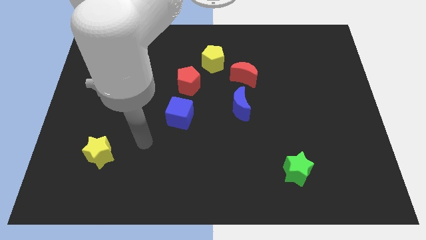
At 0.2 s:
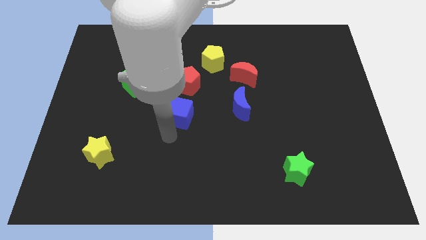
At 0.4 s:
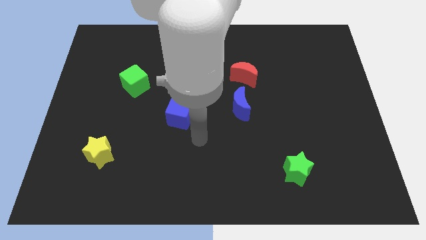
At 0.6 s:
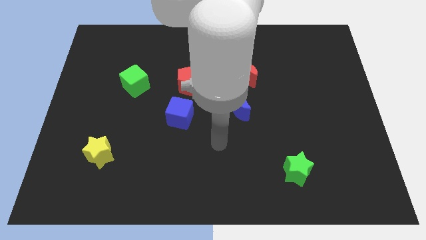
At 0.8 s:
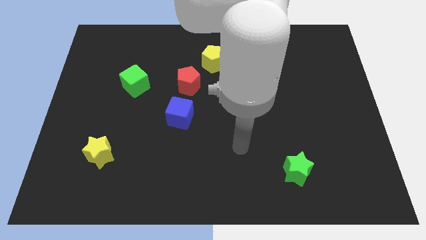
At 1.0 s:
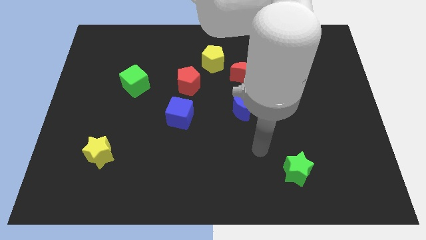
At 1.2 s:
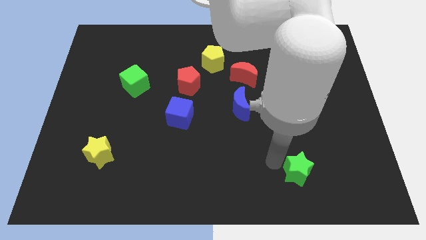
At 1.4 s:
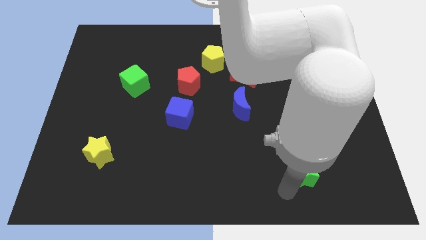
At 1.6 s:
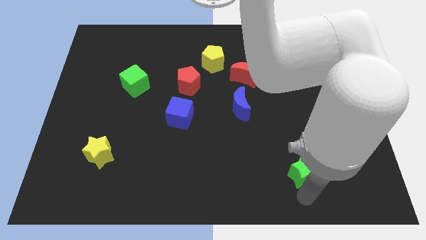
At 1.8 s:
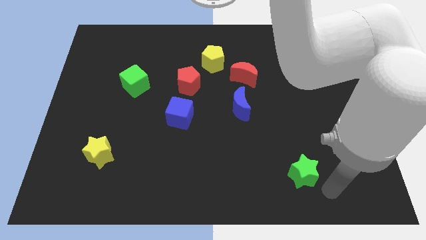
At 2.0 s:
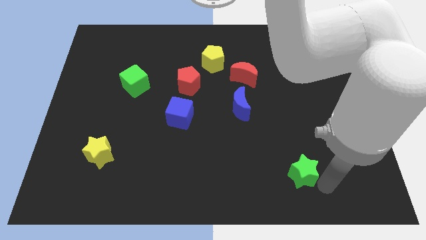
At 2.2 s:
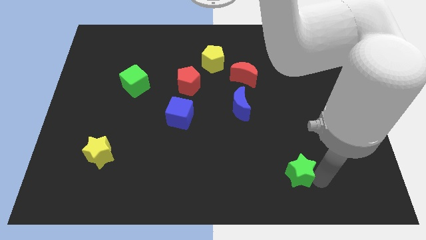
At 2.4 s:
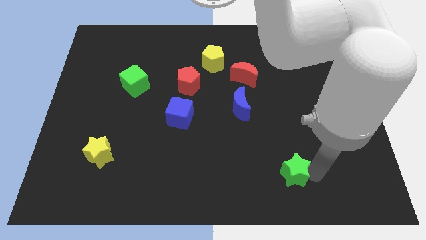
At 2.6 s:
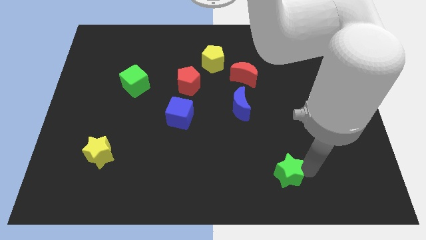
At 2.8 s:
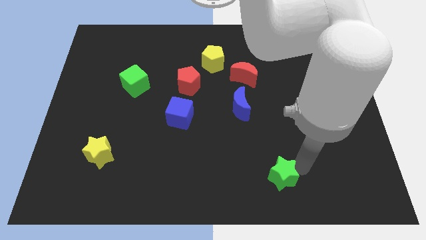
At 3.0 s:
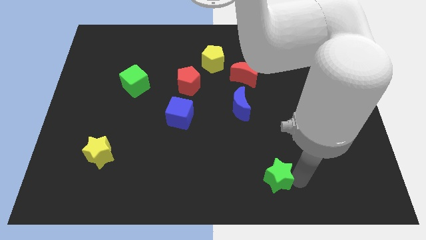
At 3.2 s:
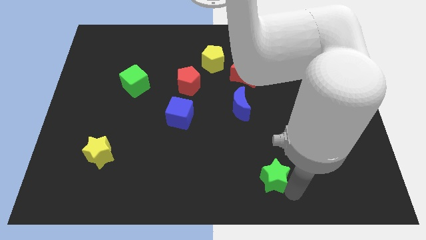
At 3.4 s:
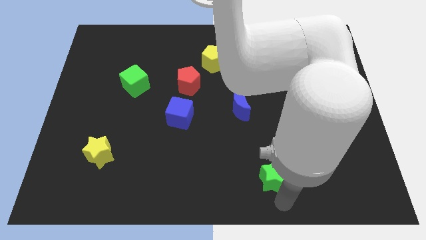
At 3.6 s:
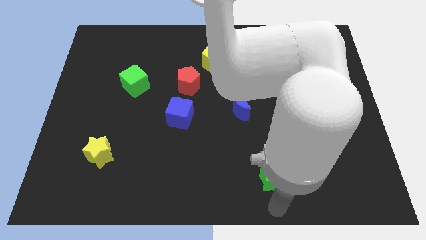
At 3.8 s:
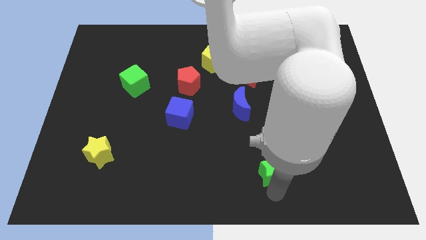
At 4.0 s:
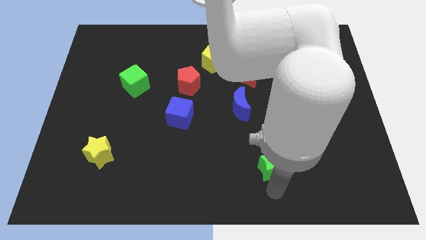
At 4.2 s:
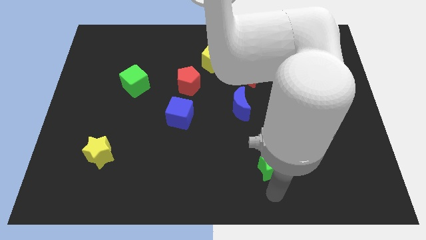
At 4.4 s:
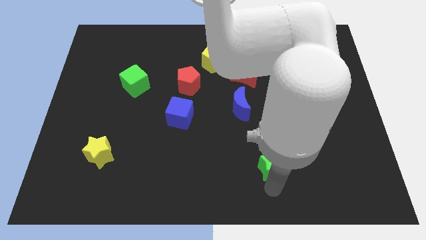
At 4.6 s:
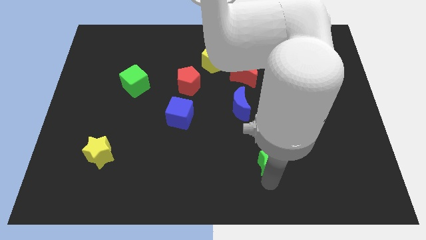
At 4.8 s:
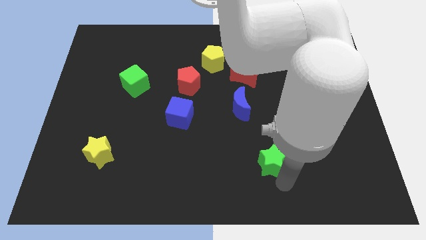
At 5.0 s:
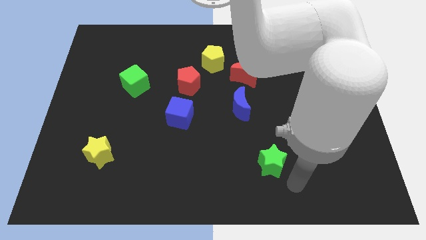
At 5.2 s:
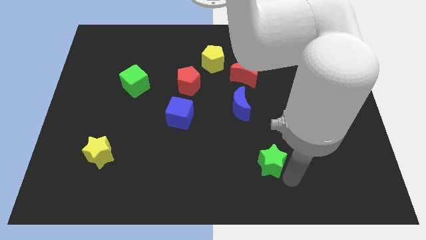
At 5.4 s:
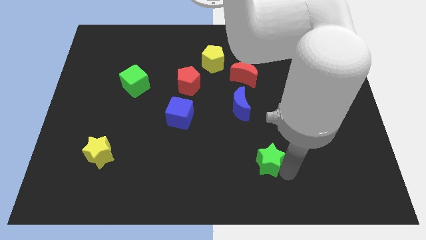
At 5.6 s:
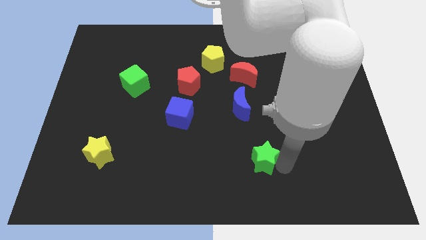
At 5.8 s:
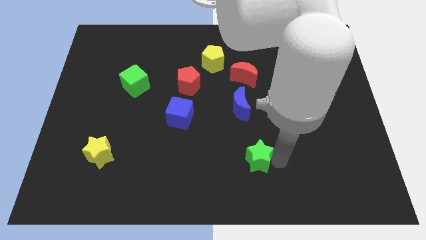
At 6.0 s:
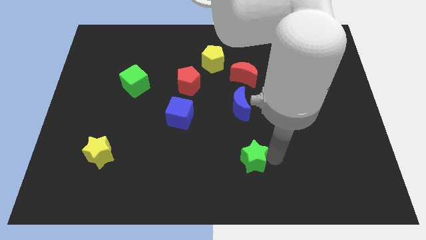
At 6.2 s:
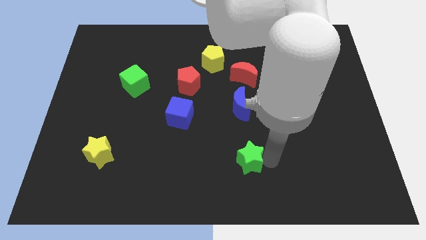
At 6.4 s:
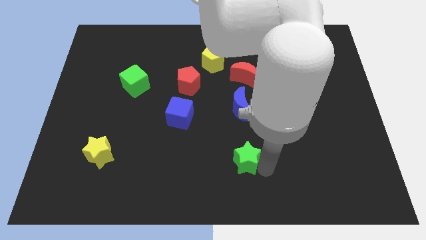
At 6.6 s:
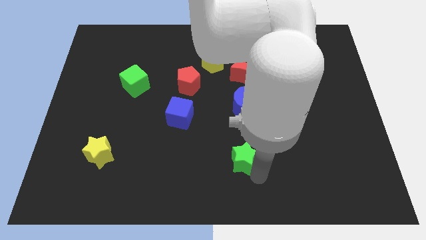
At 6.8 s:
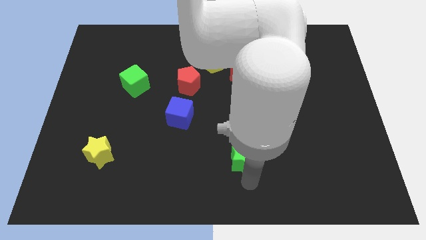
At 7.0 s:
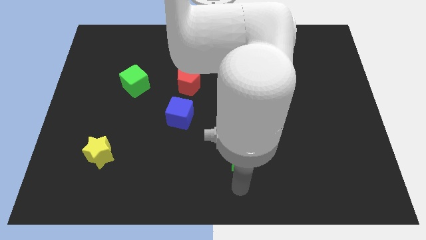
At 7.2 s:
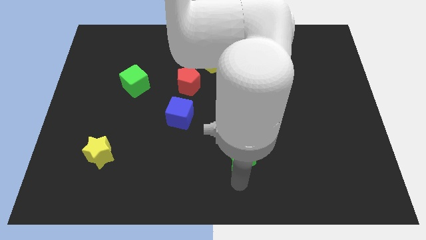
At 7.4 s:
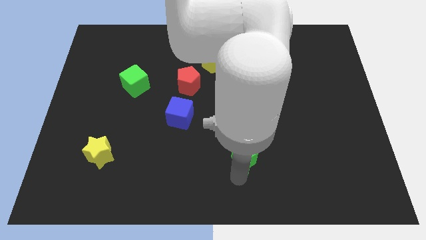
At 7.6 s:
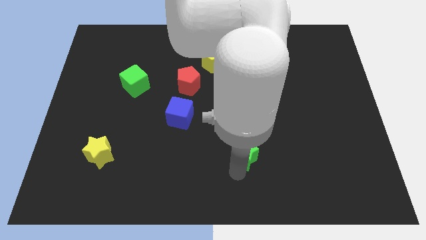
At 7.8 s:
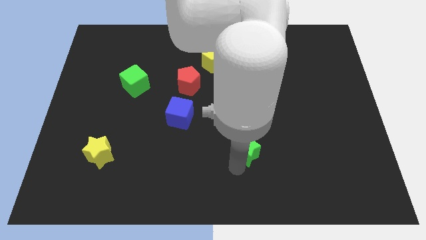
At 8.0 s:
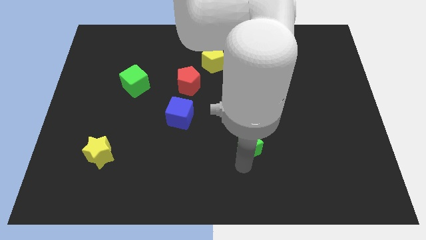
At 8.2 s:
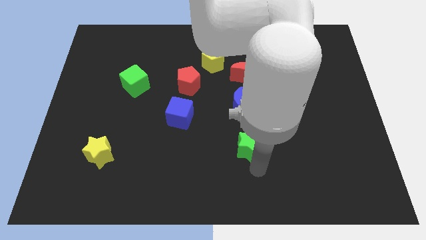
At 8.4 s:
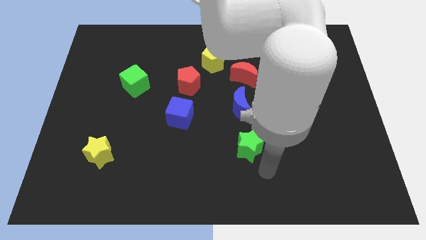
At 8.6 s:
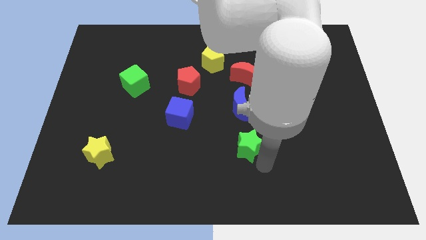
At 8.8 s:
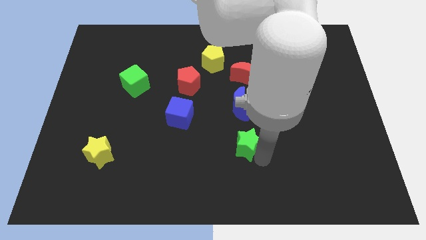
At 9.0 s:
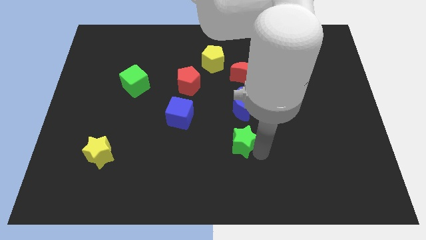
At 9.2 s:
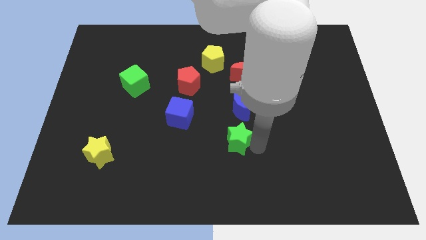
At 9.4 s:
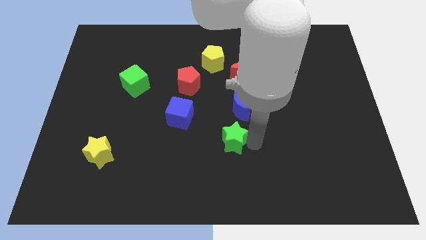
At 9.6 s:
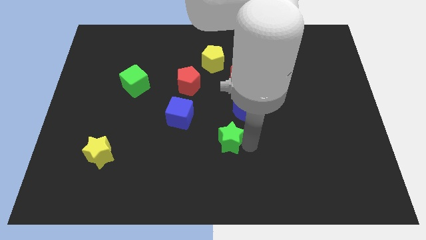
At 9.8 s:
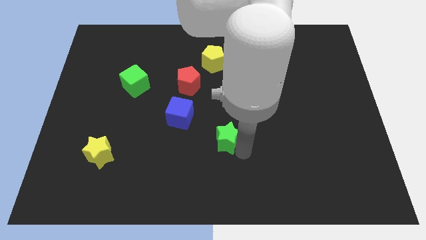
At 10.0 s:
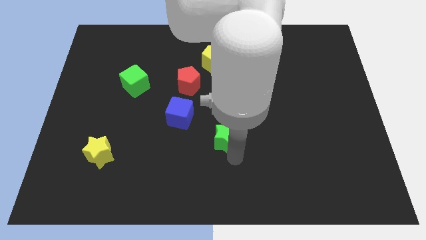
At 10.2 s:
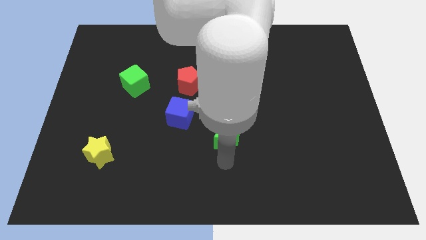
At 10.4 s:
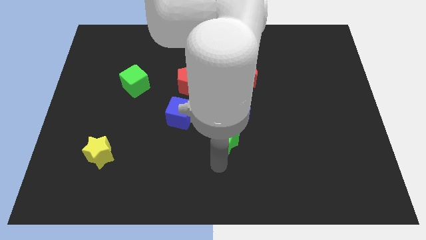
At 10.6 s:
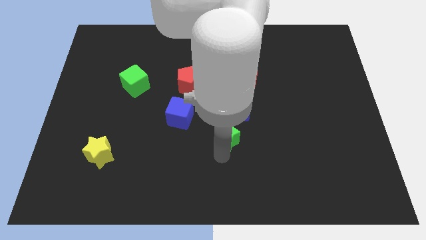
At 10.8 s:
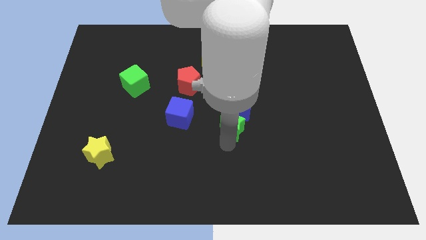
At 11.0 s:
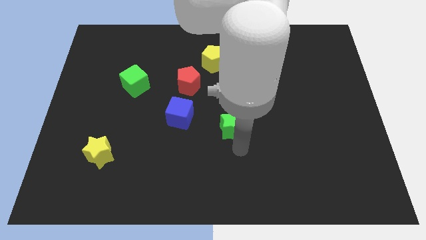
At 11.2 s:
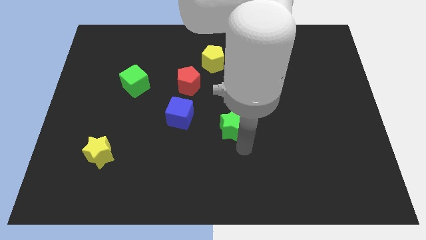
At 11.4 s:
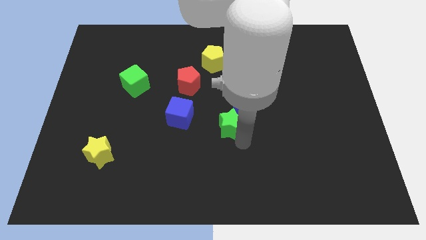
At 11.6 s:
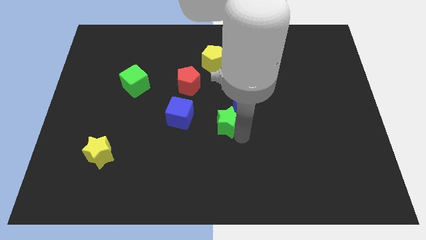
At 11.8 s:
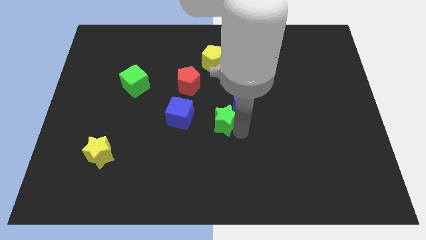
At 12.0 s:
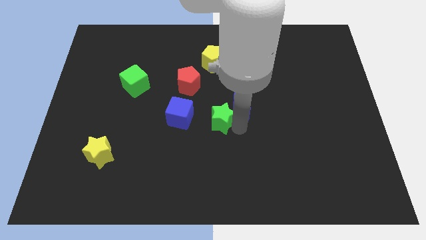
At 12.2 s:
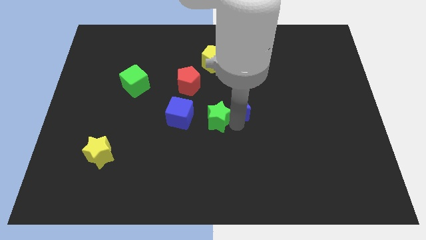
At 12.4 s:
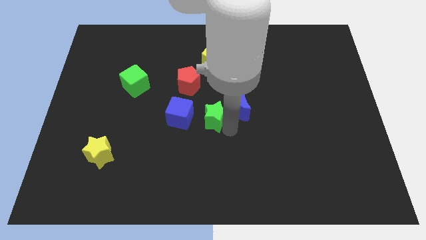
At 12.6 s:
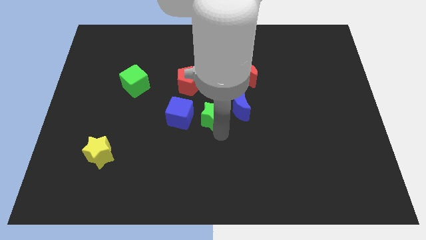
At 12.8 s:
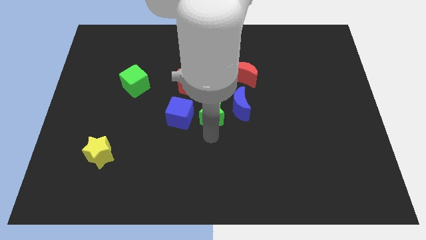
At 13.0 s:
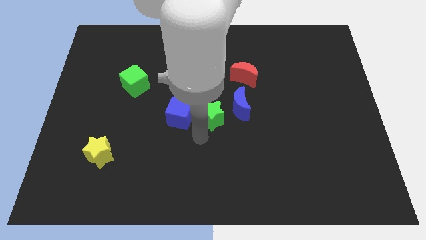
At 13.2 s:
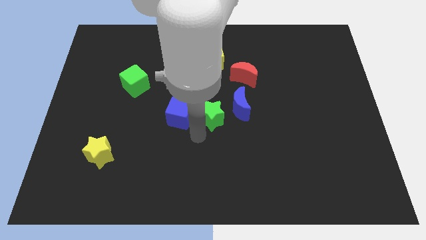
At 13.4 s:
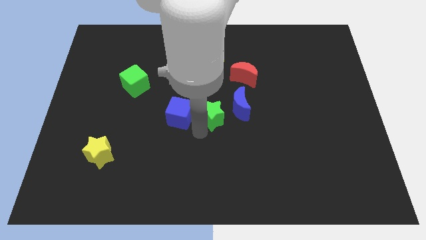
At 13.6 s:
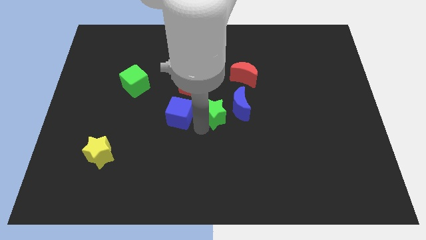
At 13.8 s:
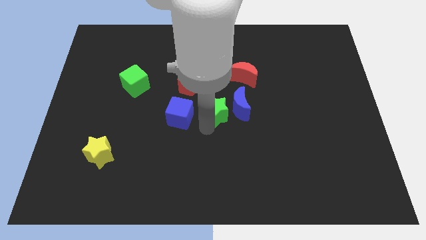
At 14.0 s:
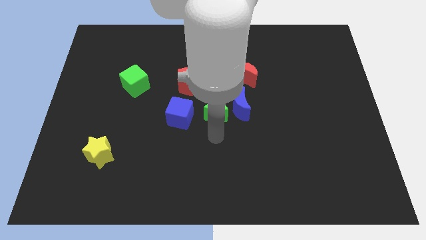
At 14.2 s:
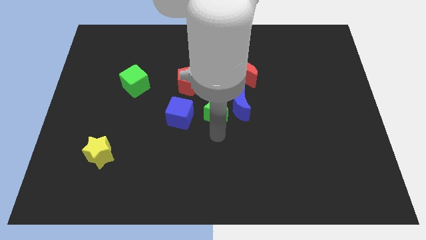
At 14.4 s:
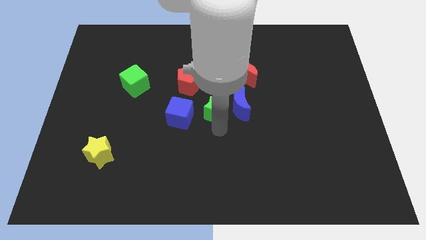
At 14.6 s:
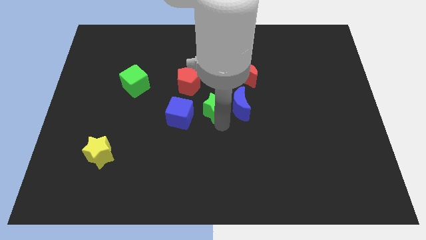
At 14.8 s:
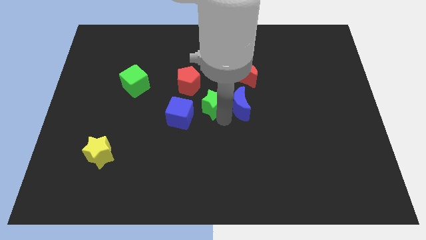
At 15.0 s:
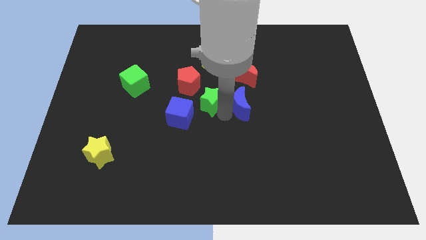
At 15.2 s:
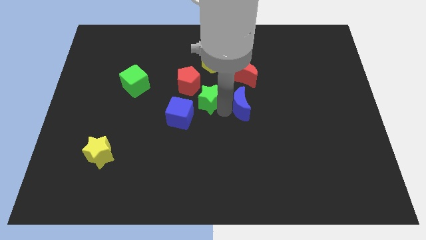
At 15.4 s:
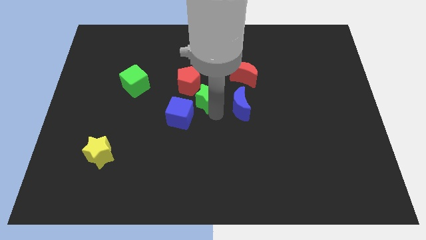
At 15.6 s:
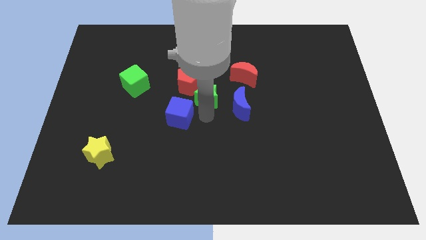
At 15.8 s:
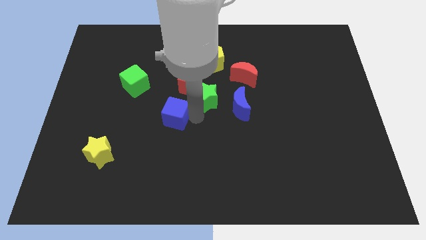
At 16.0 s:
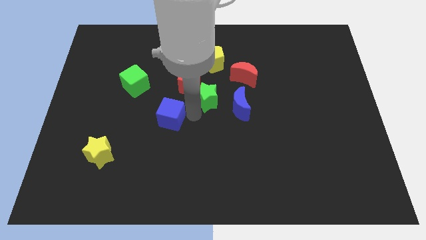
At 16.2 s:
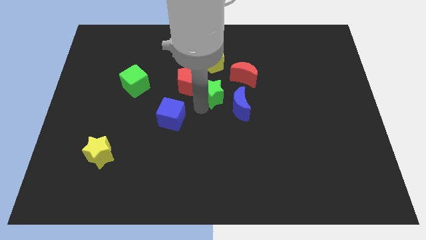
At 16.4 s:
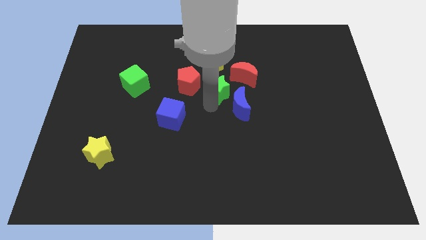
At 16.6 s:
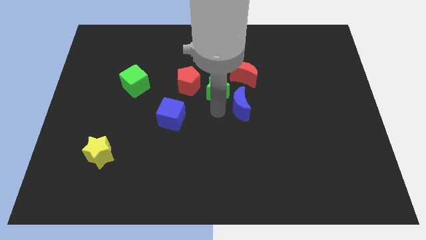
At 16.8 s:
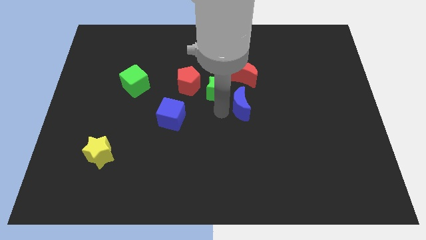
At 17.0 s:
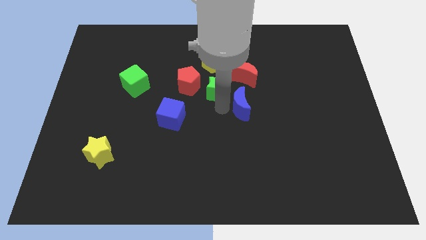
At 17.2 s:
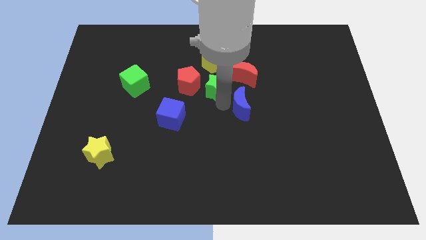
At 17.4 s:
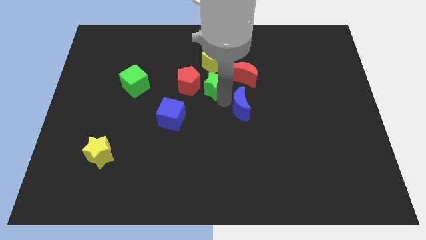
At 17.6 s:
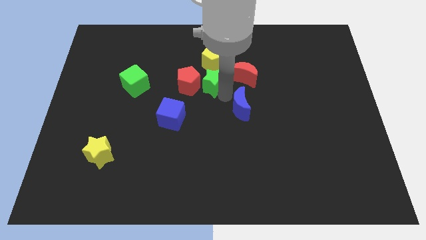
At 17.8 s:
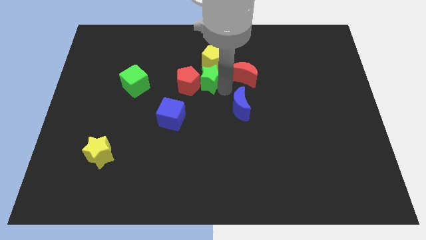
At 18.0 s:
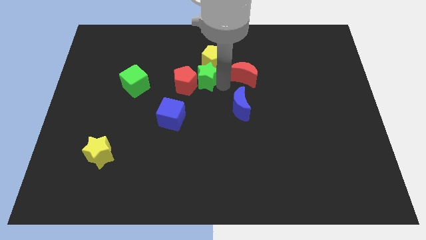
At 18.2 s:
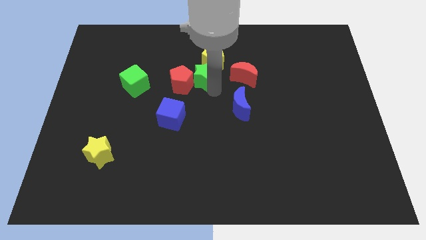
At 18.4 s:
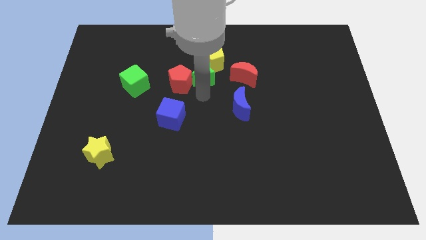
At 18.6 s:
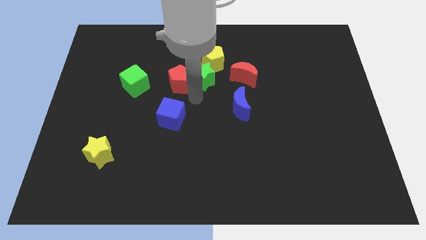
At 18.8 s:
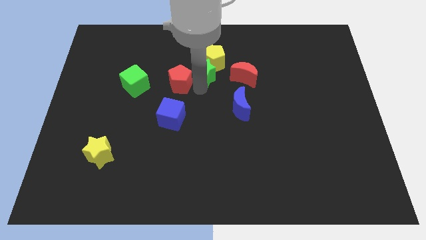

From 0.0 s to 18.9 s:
push the green star towards the yellow pentagon
